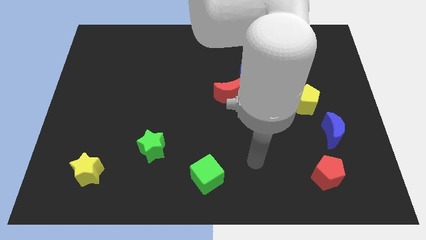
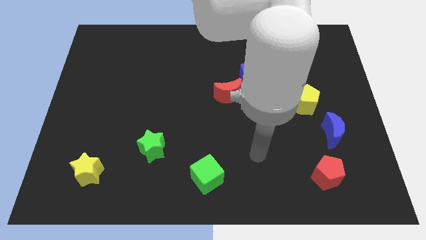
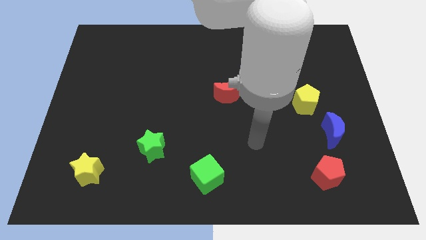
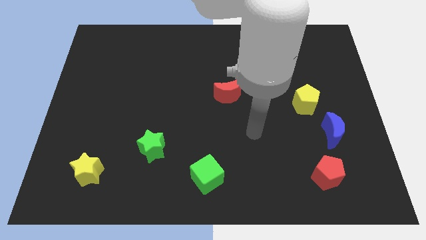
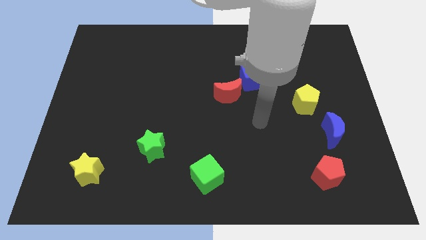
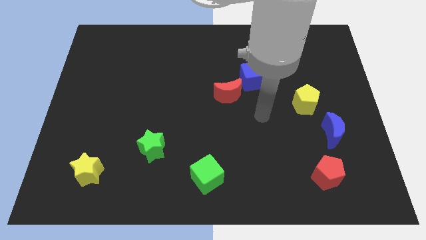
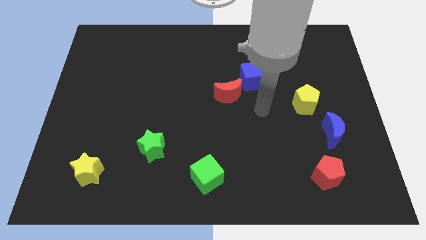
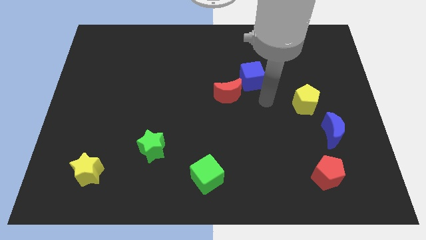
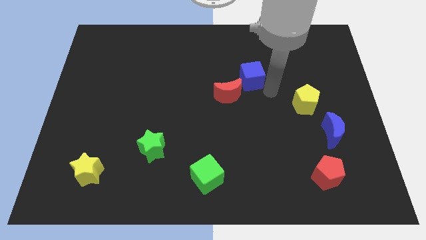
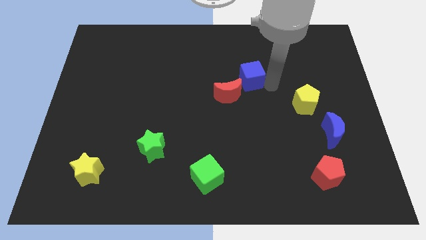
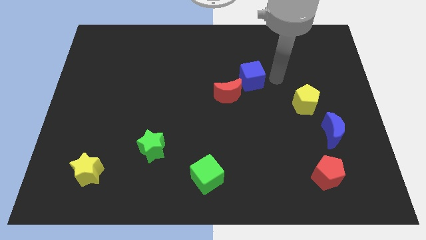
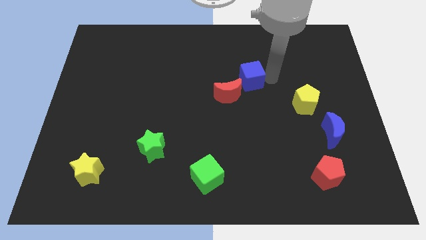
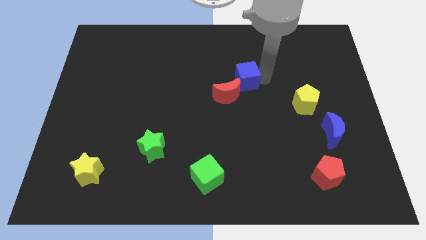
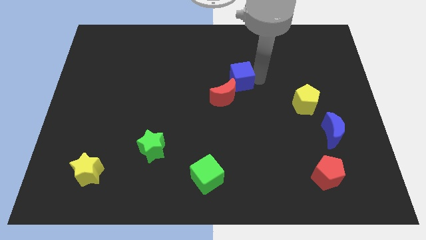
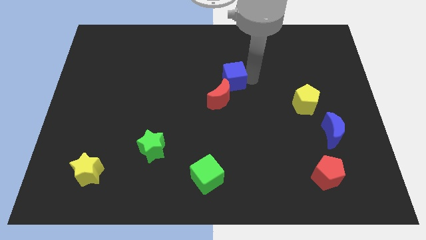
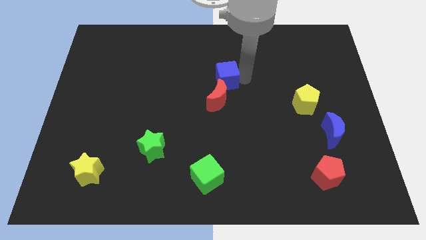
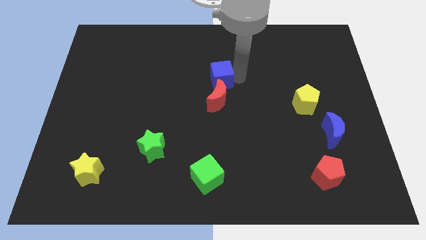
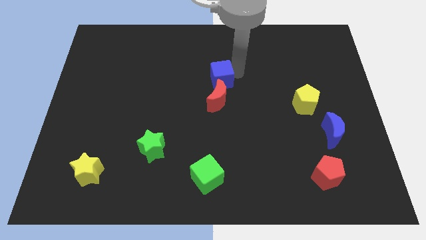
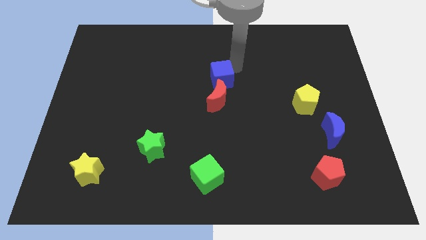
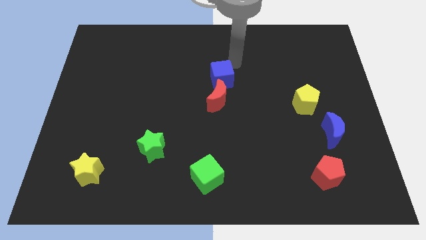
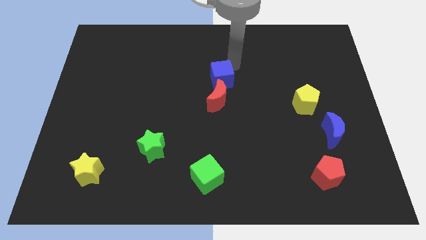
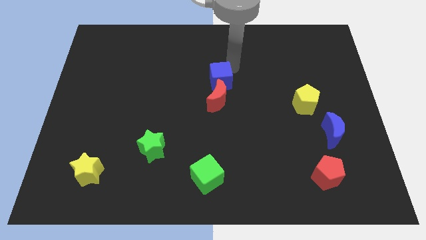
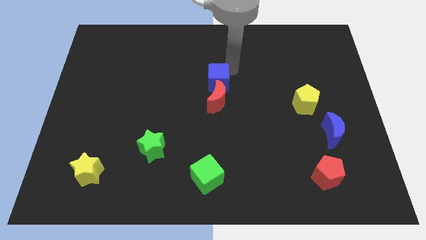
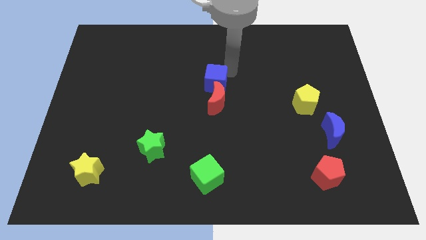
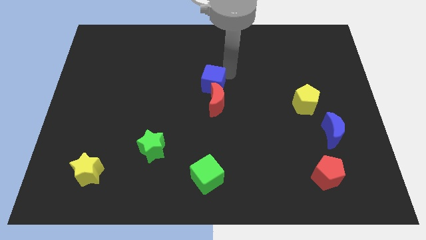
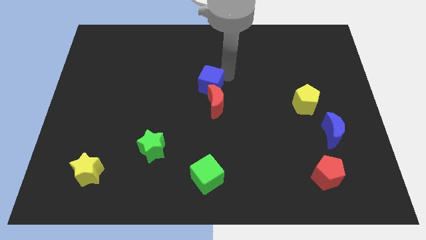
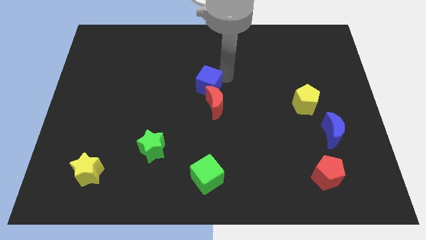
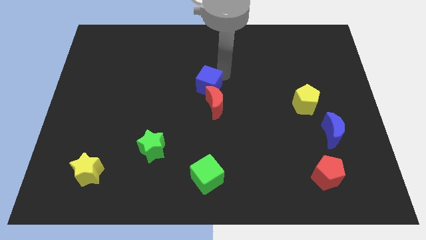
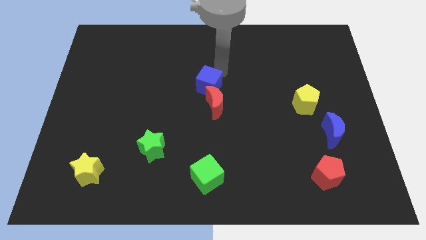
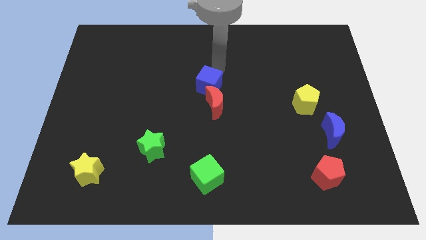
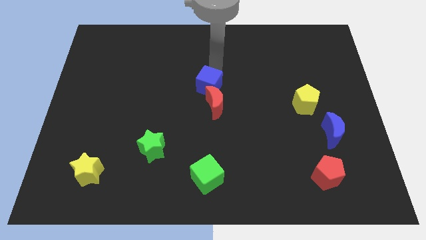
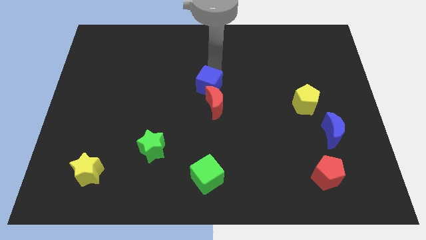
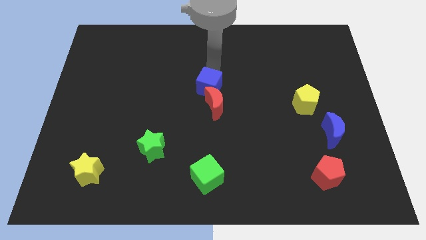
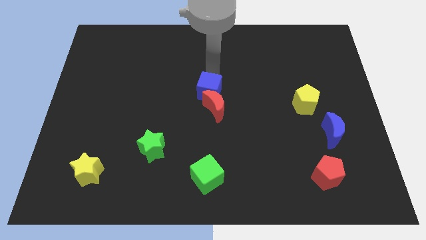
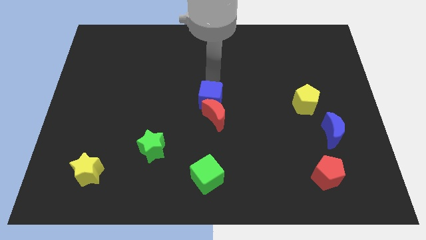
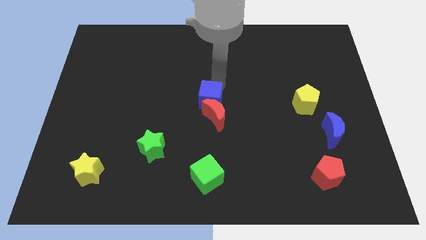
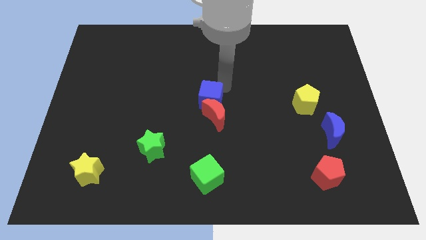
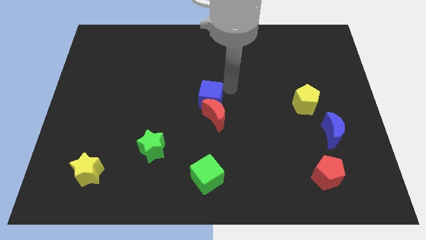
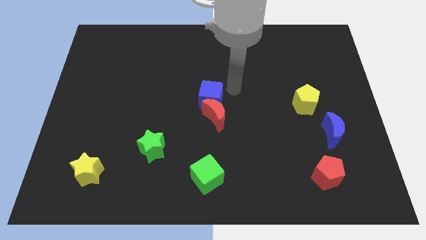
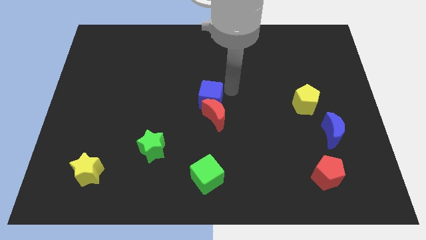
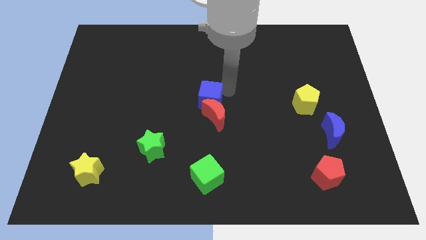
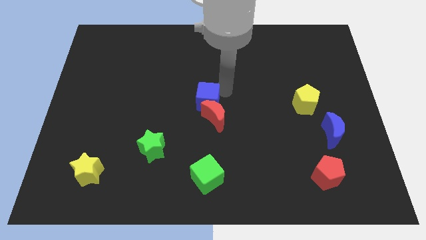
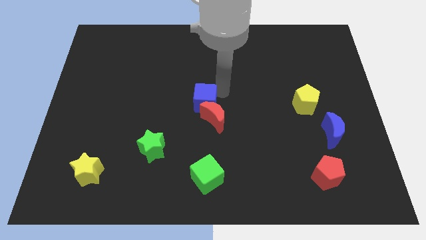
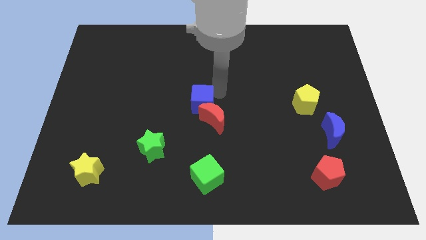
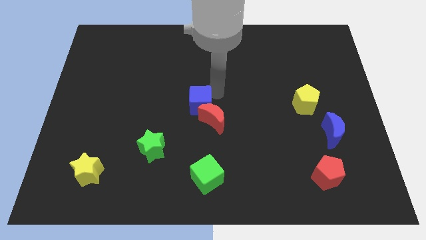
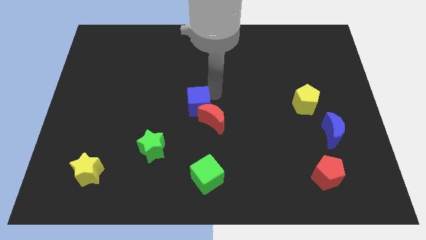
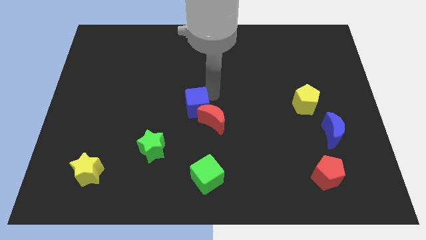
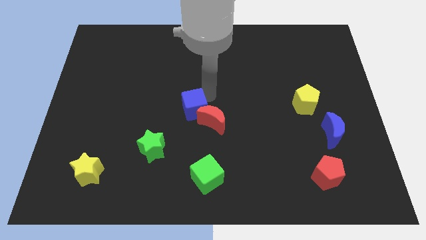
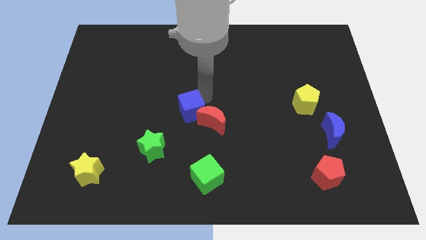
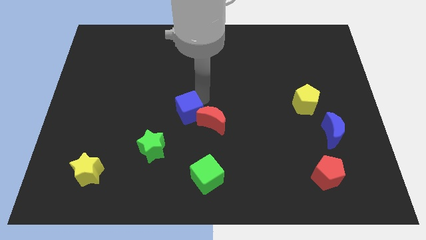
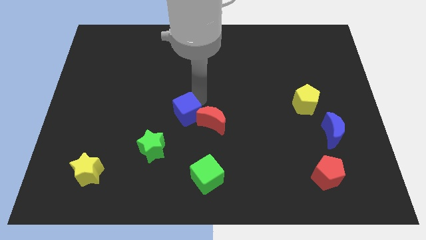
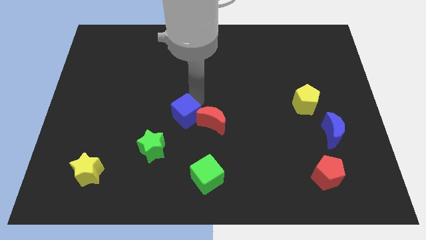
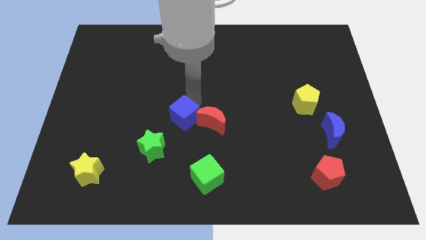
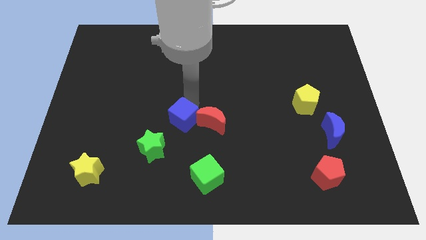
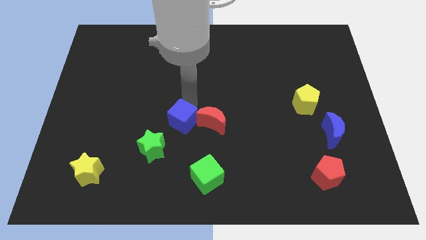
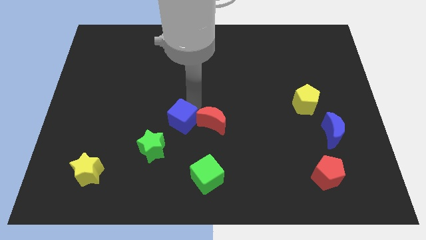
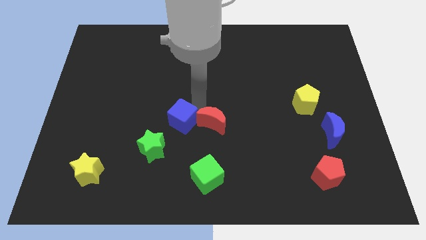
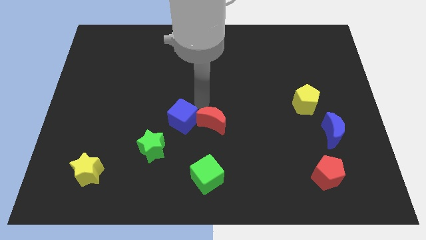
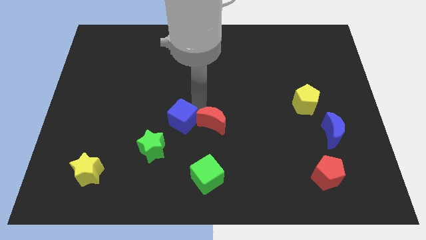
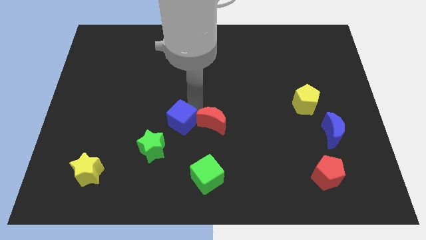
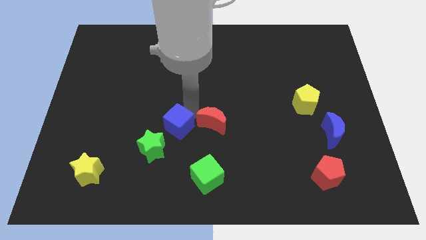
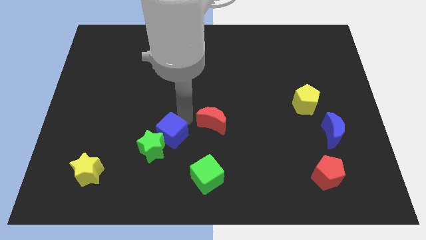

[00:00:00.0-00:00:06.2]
put the blue cube close to the green star

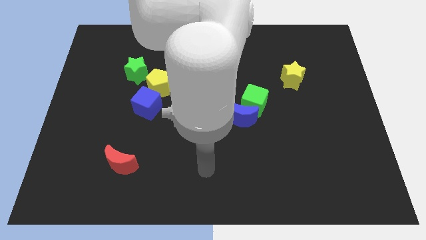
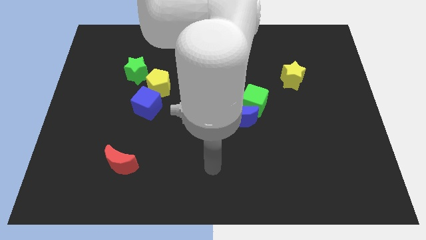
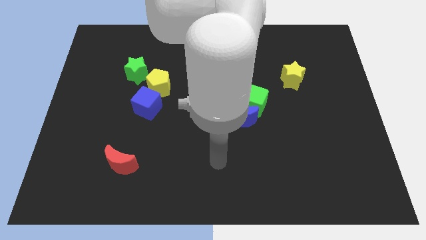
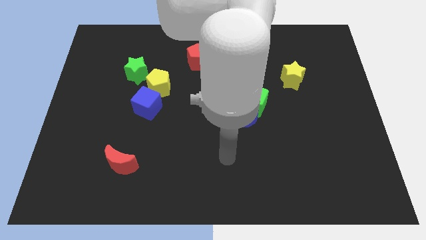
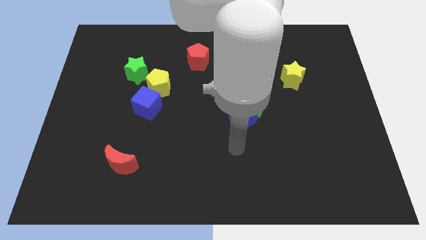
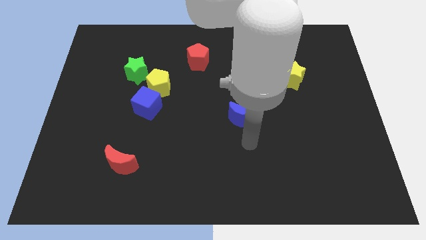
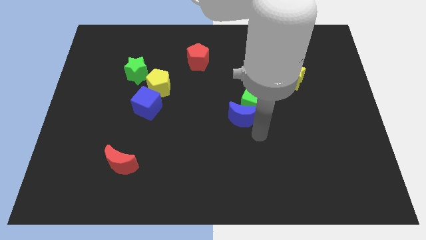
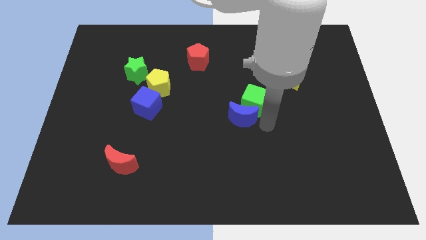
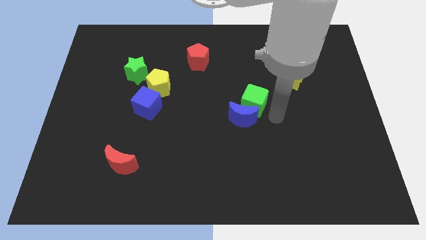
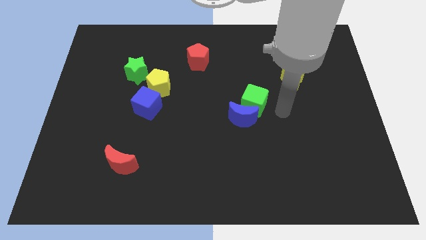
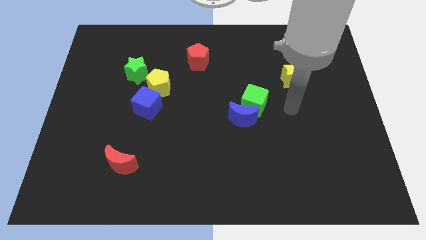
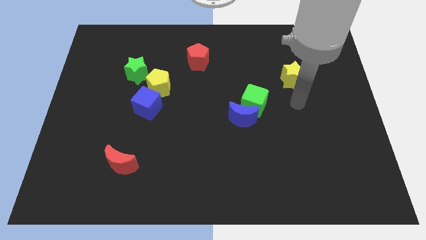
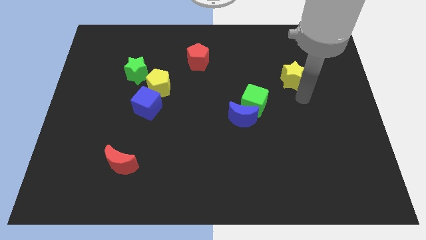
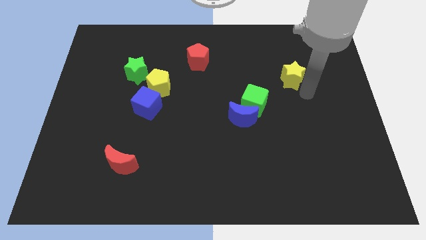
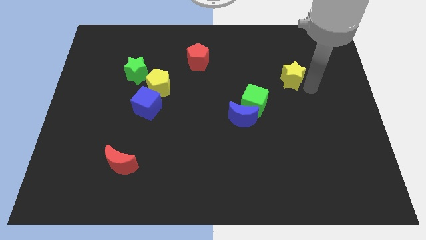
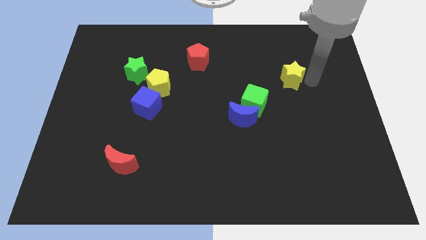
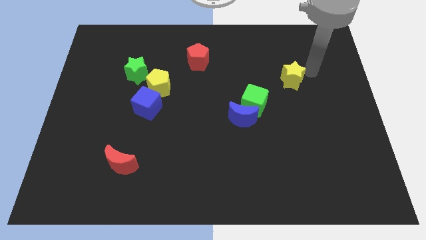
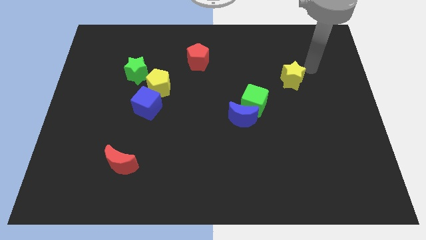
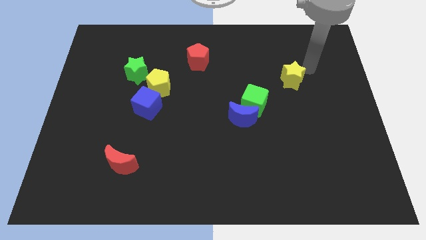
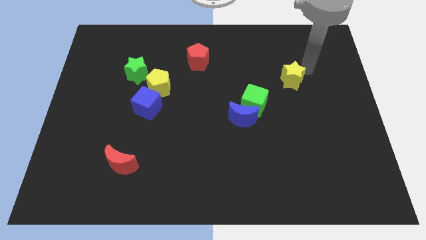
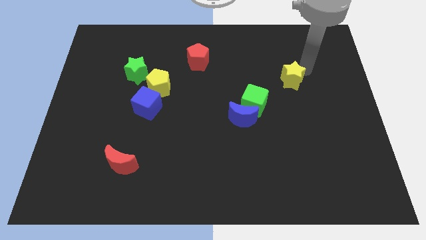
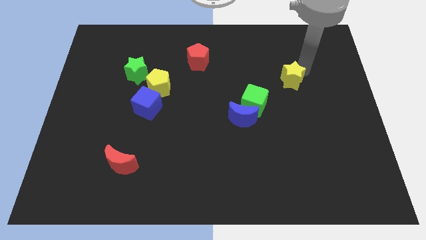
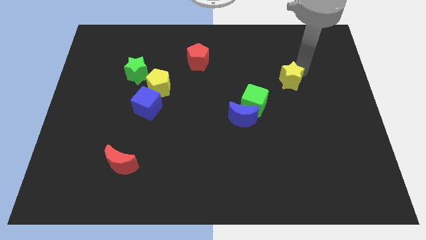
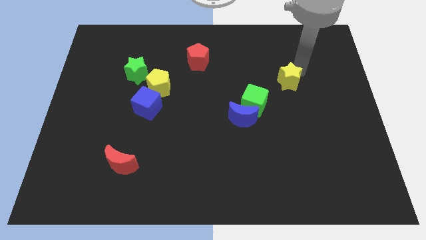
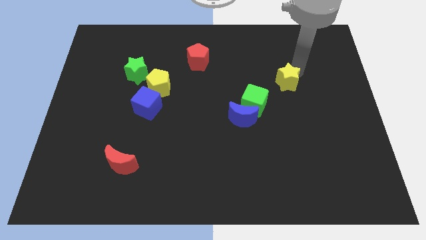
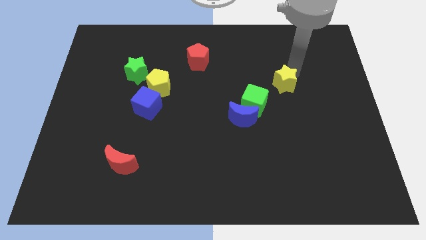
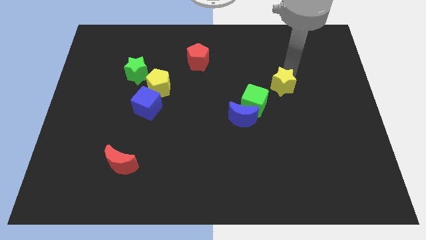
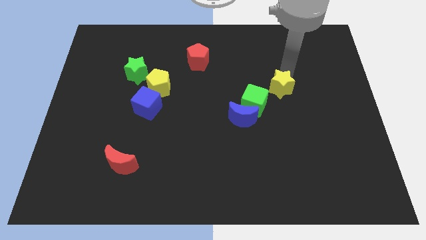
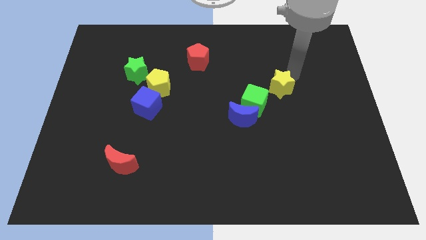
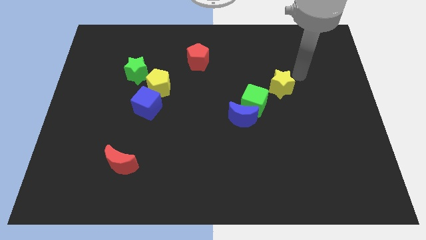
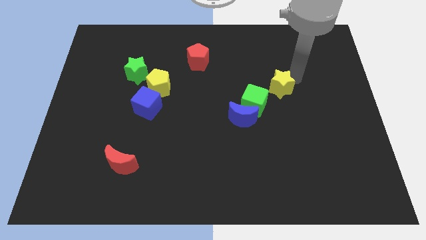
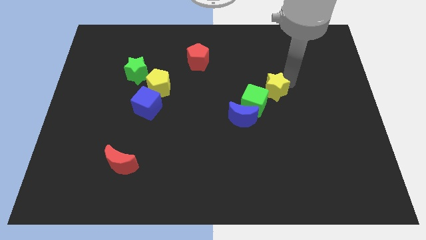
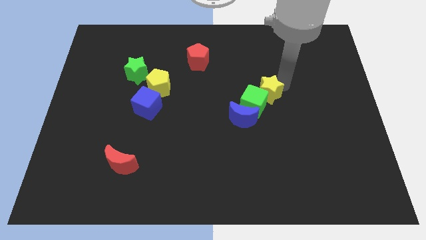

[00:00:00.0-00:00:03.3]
push the yellow star close to the green cube
